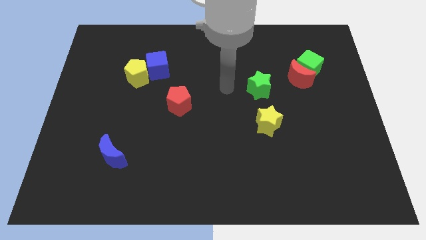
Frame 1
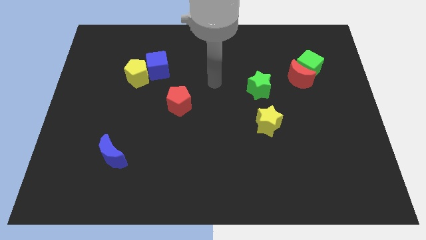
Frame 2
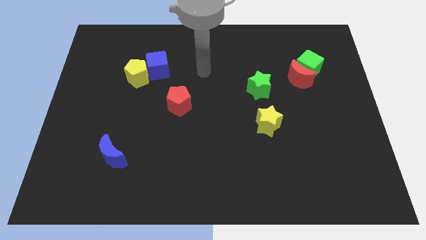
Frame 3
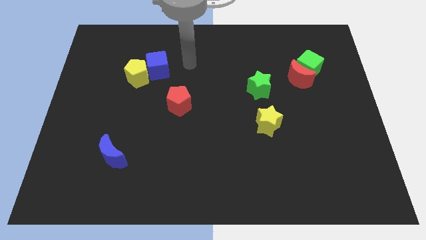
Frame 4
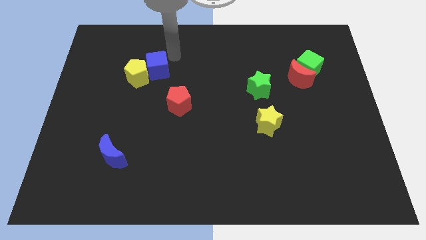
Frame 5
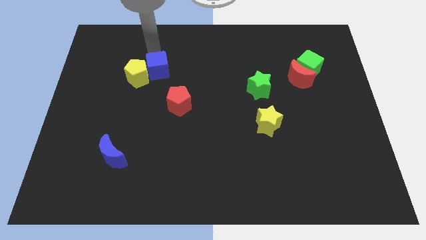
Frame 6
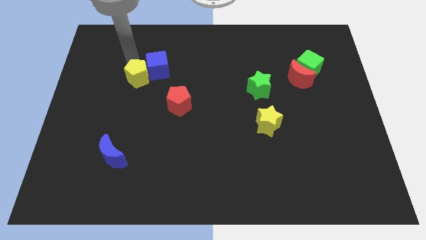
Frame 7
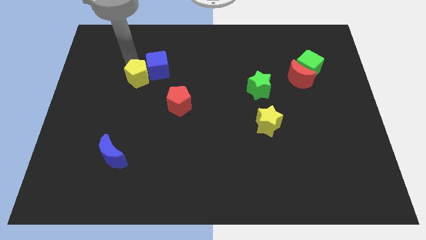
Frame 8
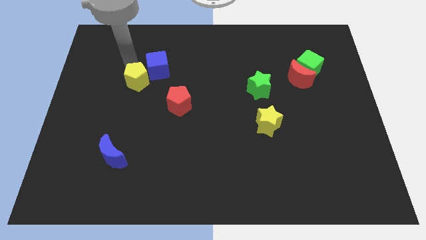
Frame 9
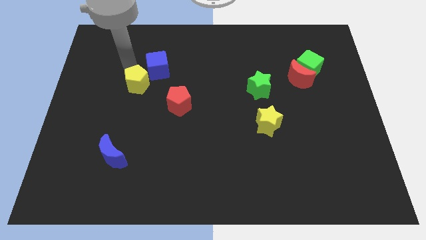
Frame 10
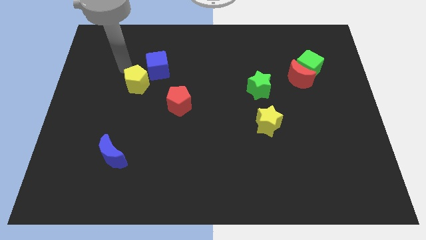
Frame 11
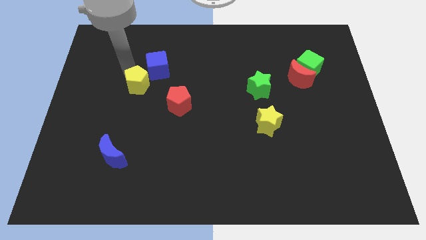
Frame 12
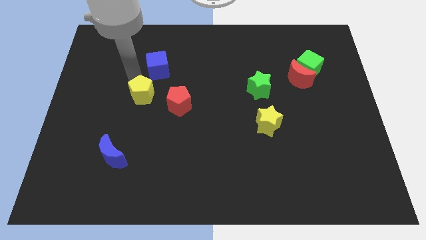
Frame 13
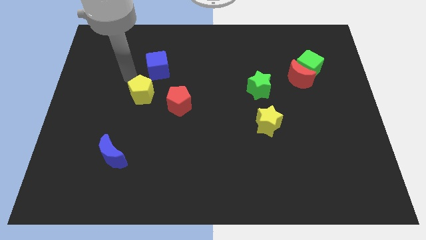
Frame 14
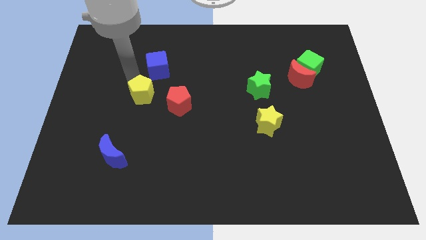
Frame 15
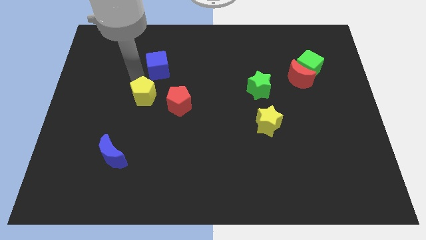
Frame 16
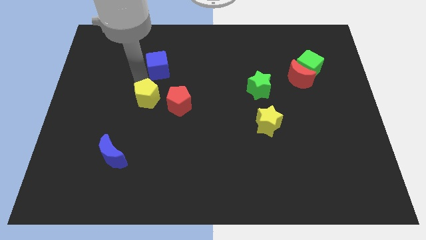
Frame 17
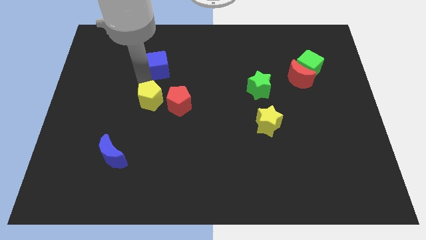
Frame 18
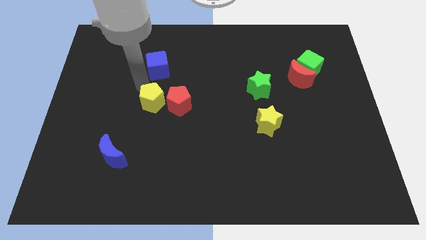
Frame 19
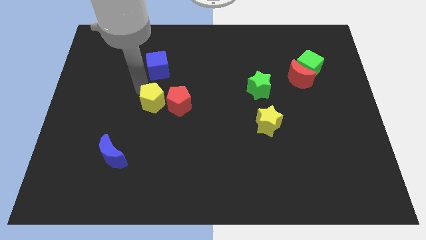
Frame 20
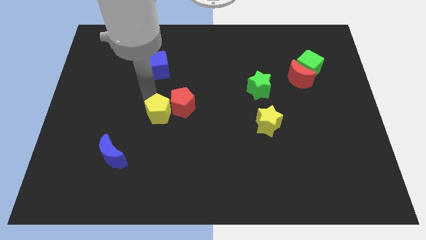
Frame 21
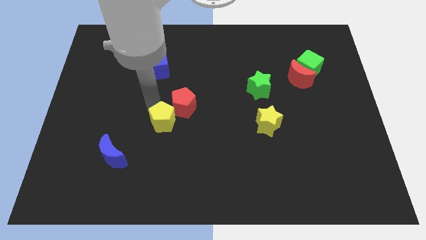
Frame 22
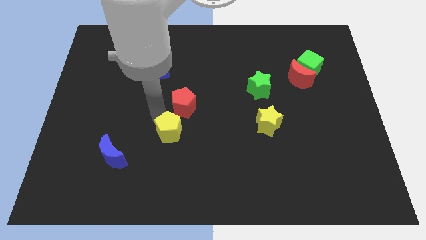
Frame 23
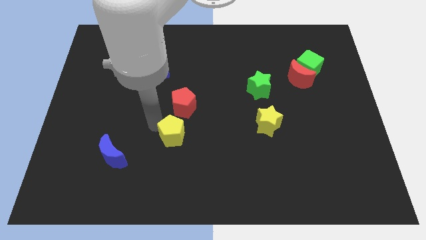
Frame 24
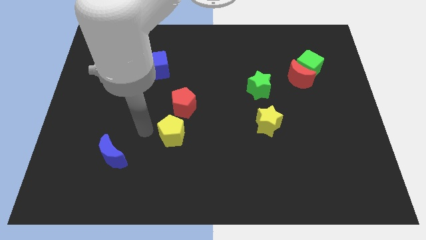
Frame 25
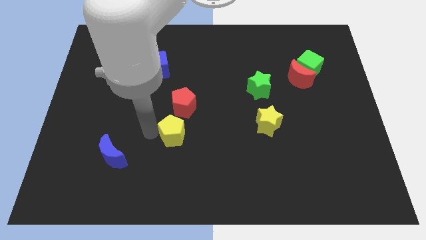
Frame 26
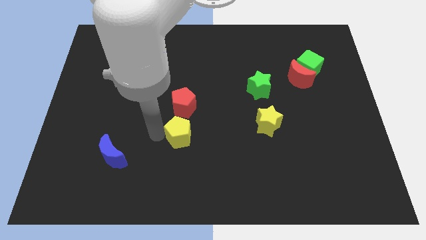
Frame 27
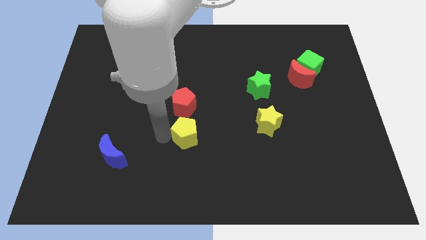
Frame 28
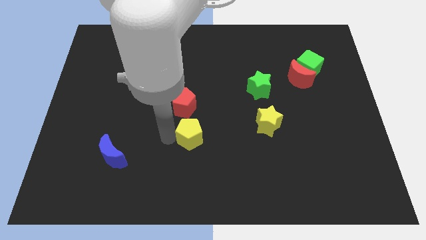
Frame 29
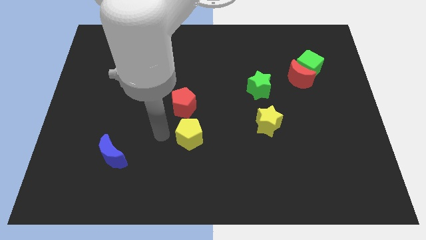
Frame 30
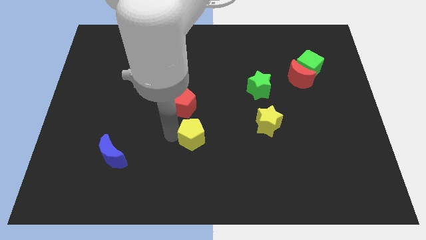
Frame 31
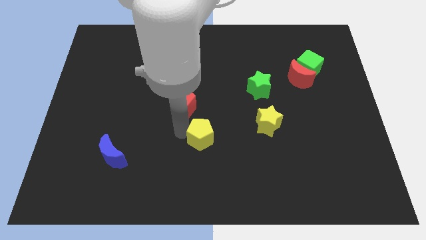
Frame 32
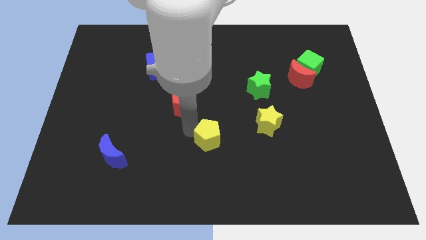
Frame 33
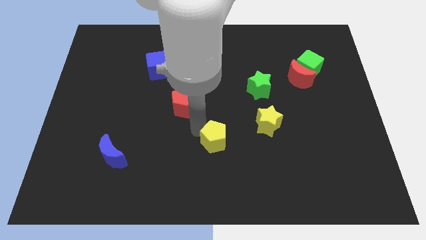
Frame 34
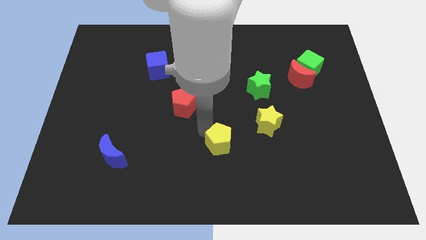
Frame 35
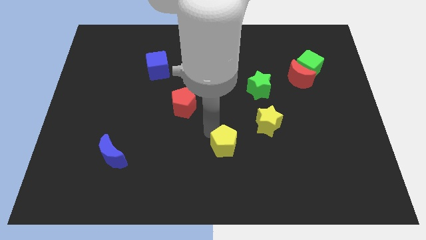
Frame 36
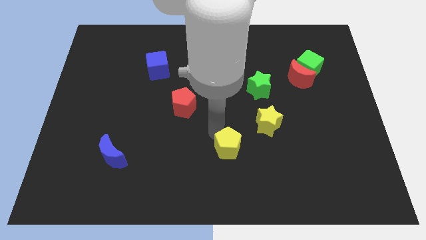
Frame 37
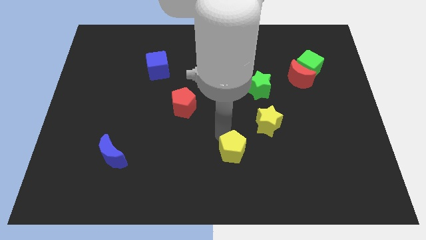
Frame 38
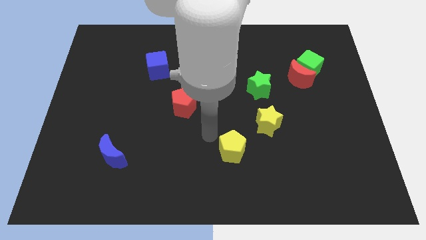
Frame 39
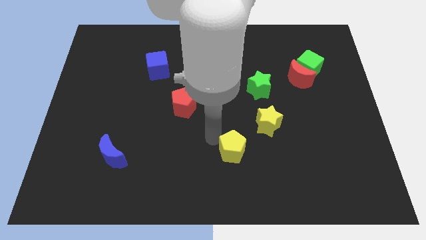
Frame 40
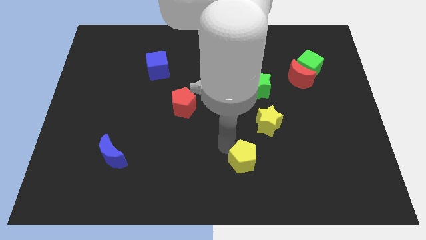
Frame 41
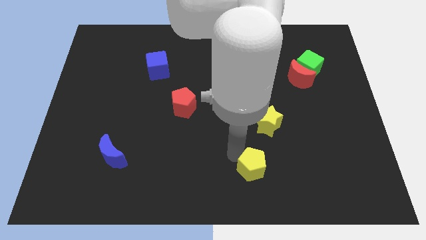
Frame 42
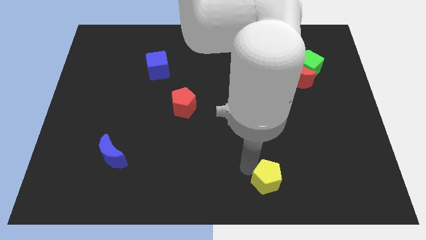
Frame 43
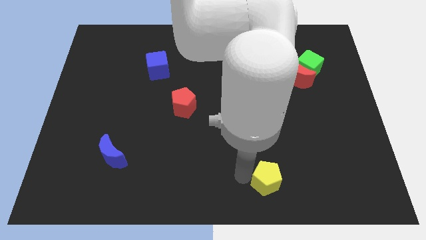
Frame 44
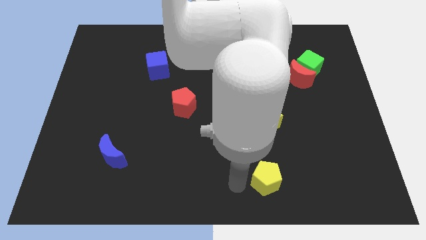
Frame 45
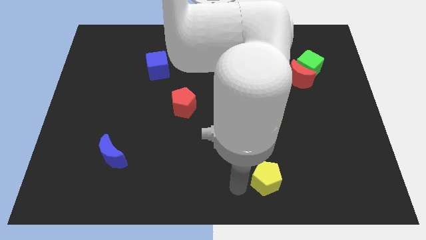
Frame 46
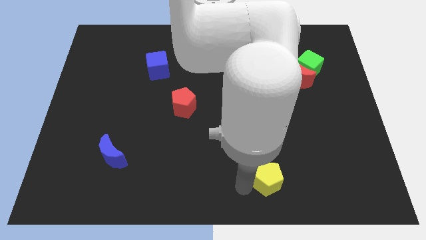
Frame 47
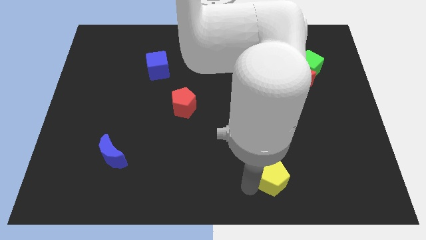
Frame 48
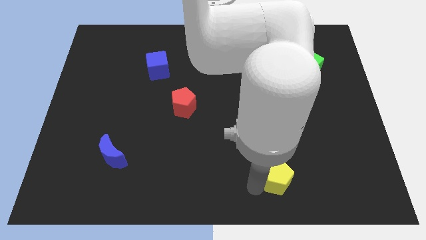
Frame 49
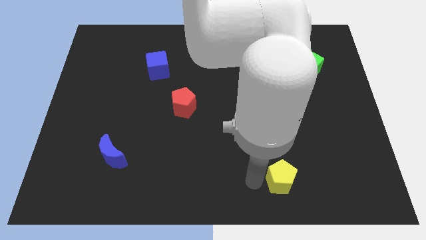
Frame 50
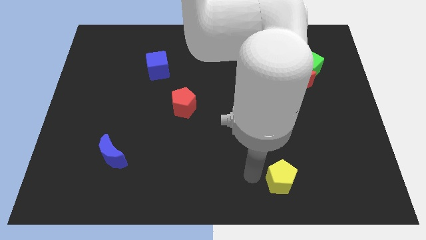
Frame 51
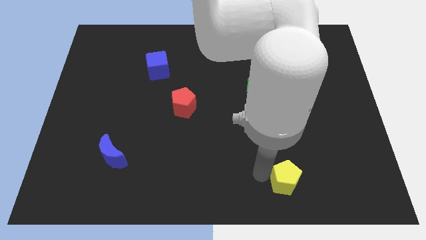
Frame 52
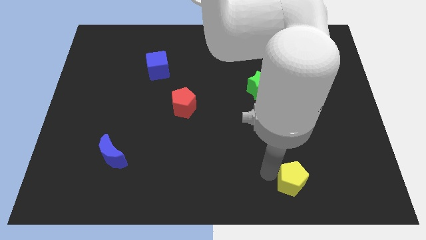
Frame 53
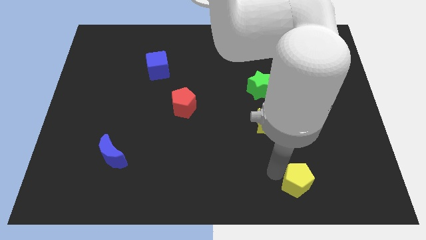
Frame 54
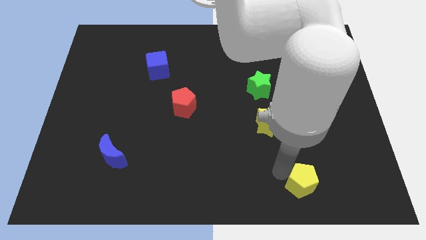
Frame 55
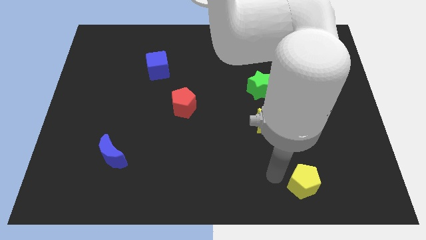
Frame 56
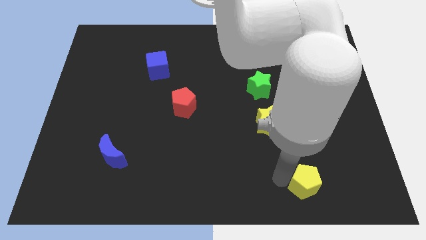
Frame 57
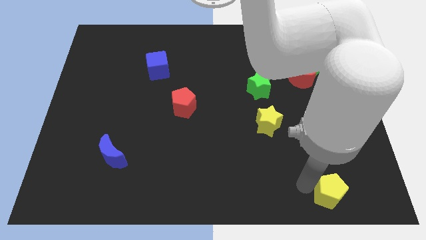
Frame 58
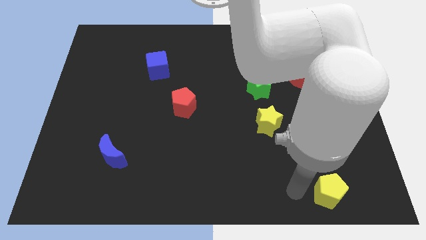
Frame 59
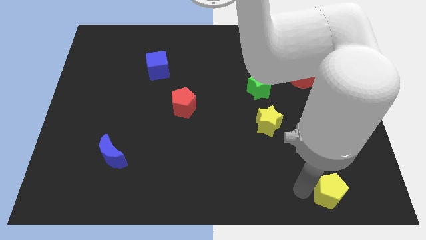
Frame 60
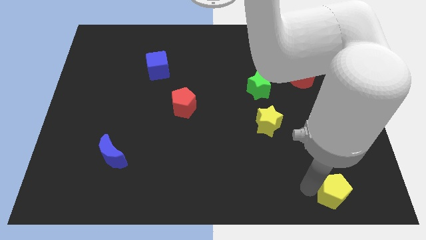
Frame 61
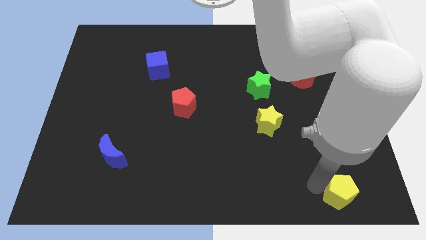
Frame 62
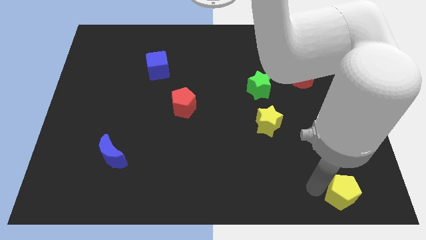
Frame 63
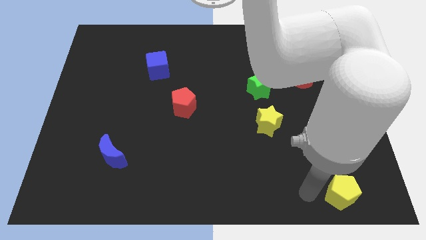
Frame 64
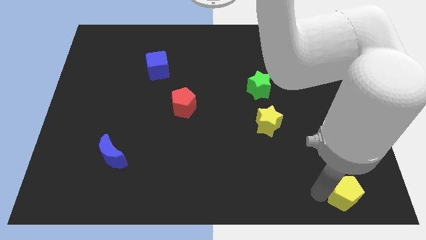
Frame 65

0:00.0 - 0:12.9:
put the yellow pentagon to the bottom right corner

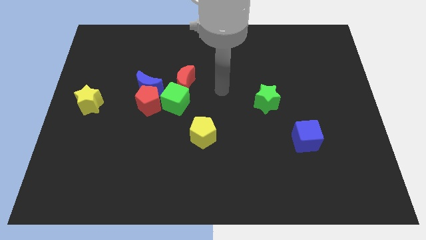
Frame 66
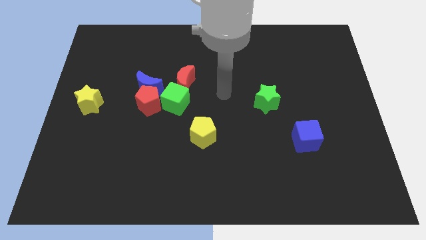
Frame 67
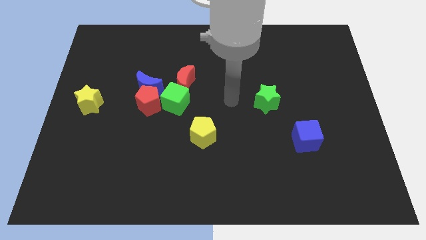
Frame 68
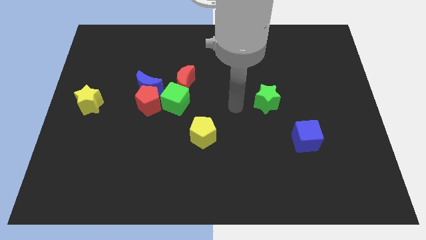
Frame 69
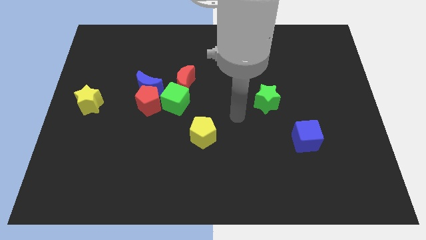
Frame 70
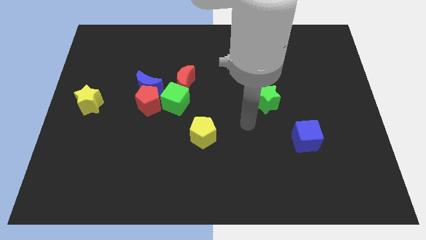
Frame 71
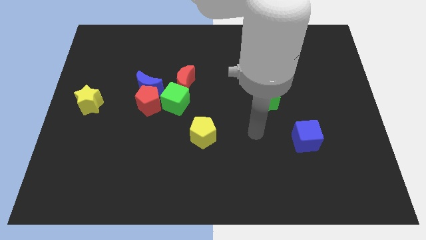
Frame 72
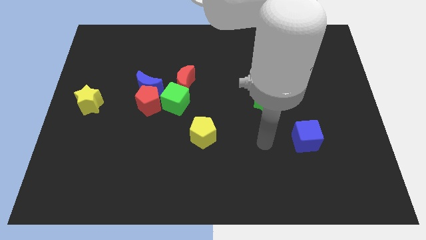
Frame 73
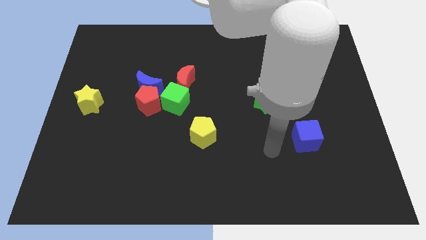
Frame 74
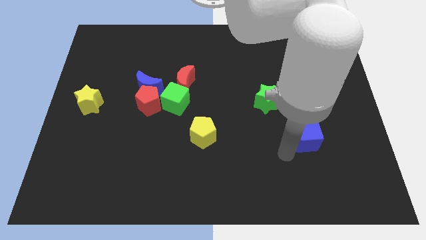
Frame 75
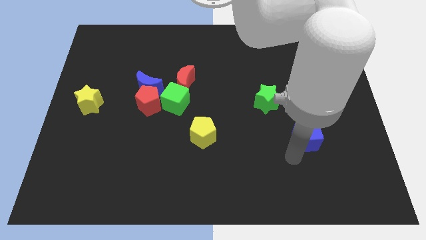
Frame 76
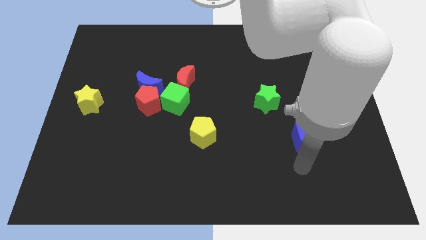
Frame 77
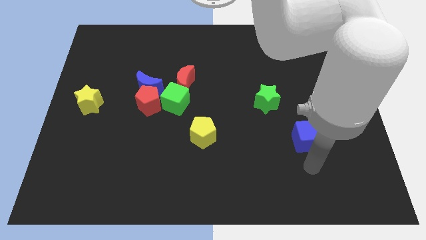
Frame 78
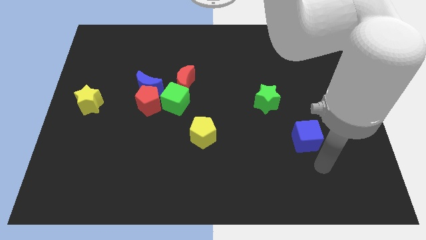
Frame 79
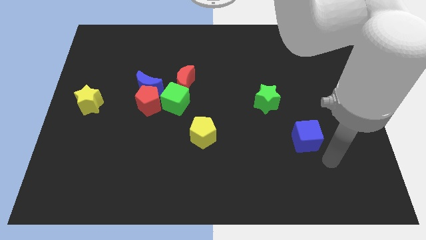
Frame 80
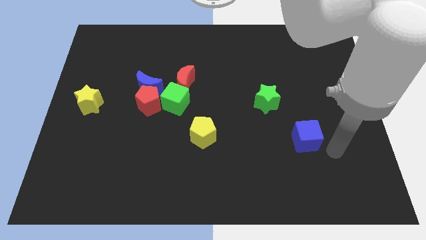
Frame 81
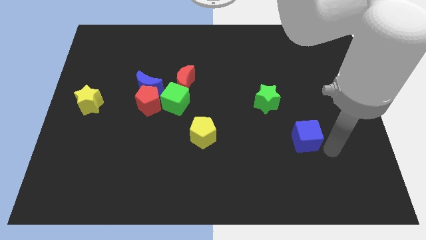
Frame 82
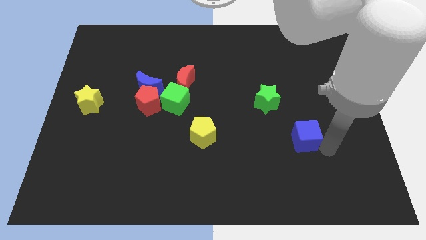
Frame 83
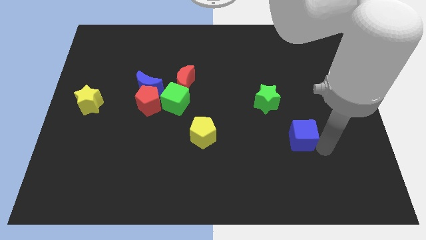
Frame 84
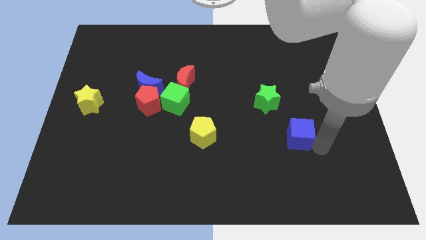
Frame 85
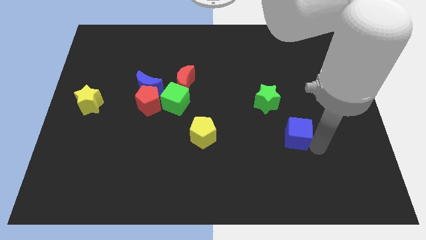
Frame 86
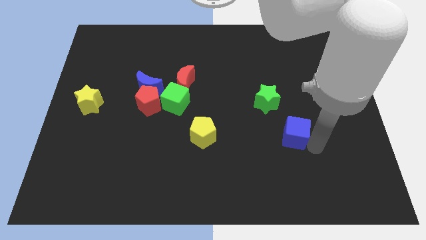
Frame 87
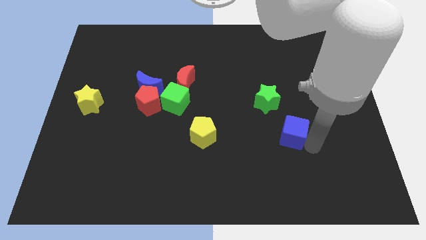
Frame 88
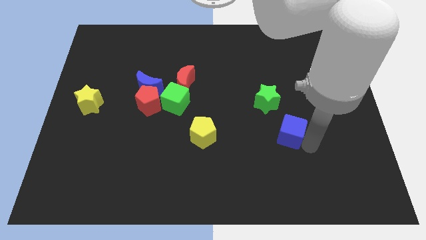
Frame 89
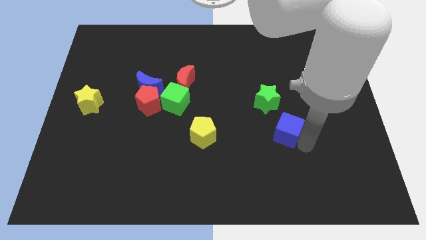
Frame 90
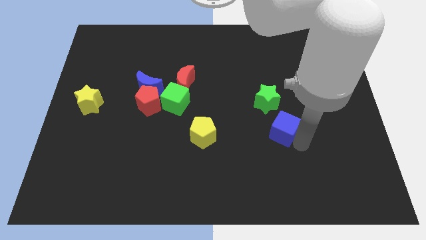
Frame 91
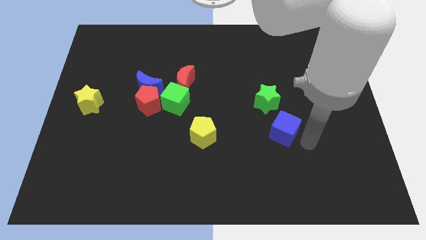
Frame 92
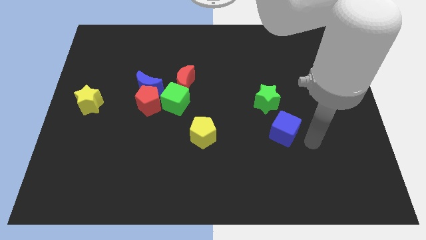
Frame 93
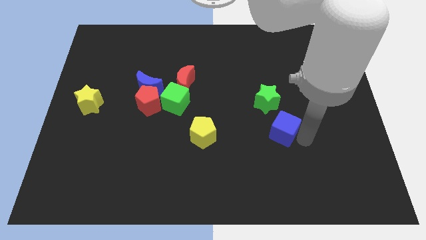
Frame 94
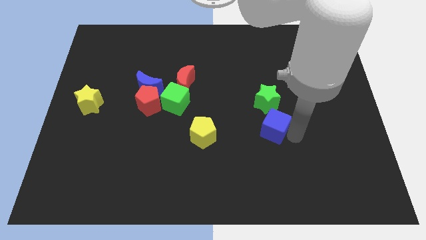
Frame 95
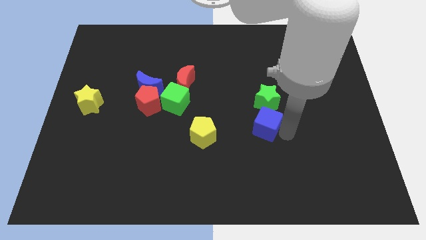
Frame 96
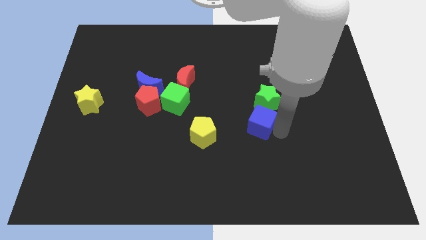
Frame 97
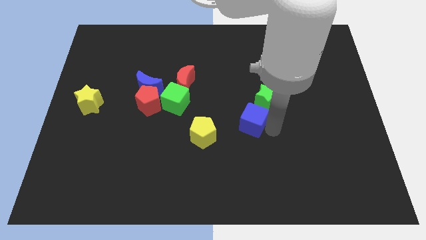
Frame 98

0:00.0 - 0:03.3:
move the blue cube to the middle
